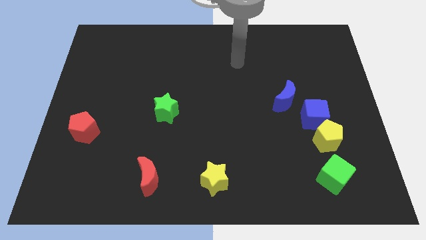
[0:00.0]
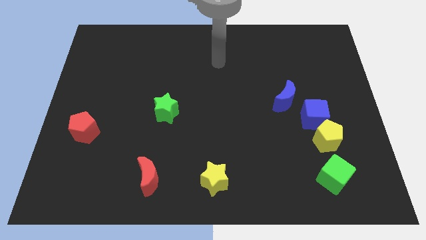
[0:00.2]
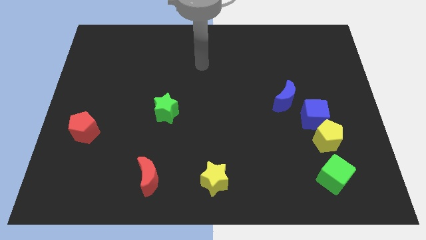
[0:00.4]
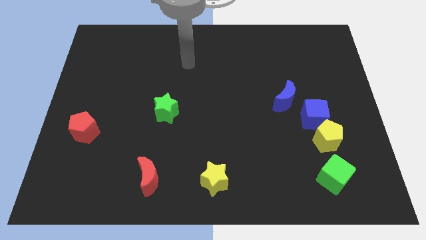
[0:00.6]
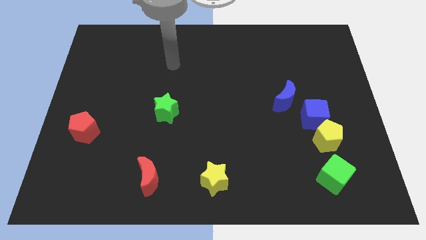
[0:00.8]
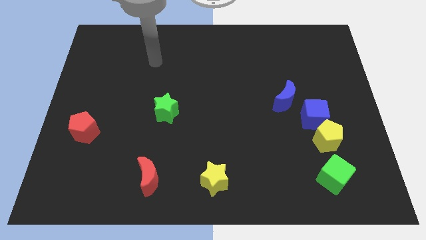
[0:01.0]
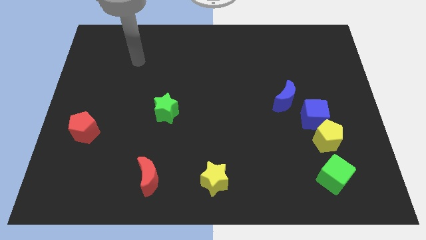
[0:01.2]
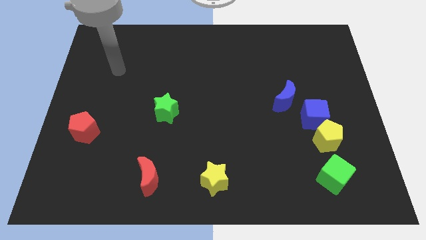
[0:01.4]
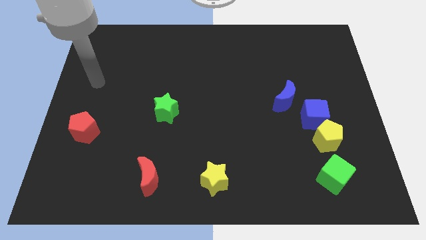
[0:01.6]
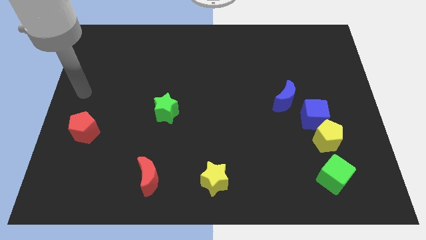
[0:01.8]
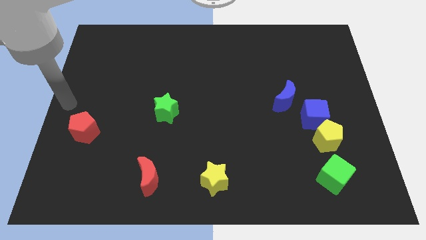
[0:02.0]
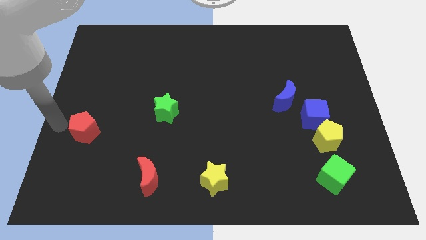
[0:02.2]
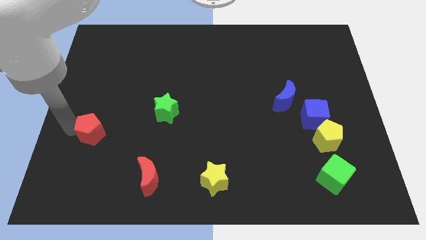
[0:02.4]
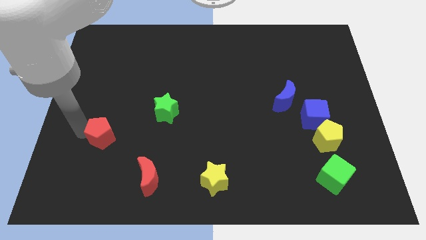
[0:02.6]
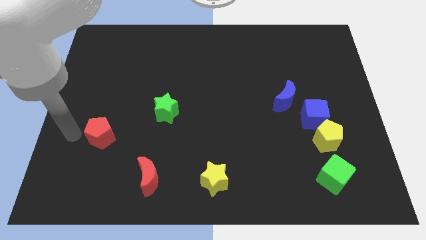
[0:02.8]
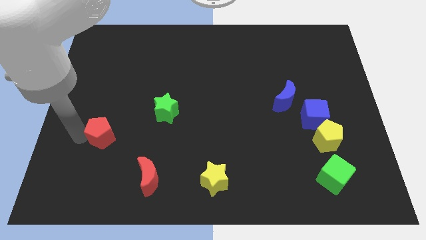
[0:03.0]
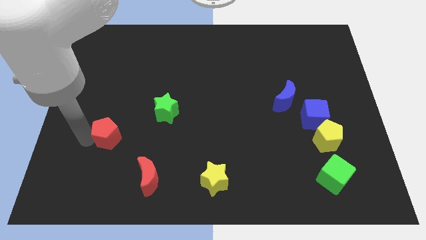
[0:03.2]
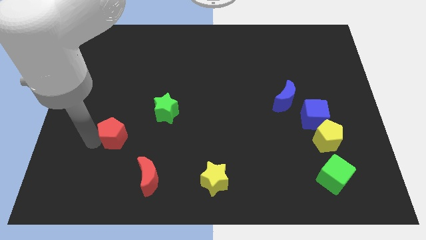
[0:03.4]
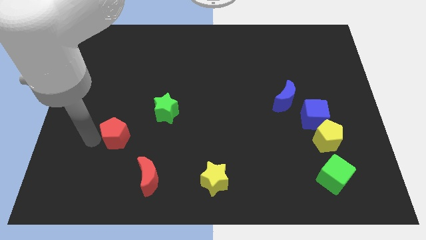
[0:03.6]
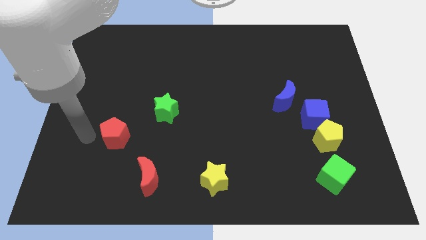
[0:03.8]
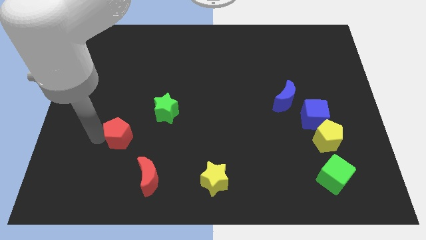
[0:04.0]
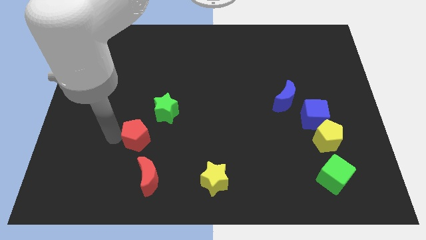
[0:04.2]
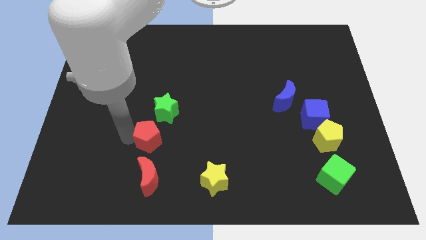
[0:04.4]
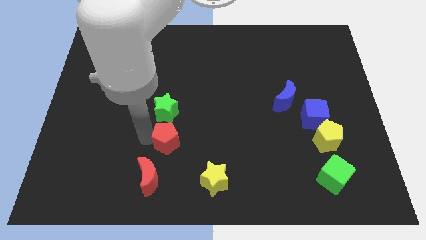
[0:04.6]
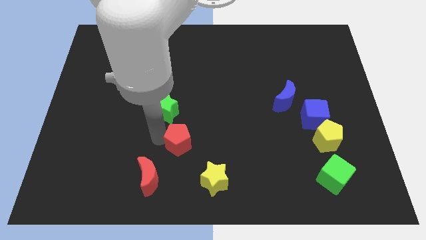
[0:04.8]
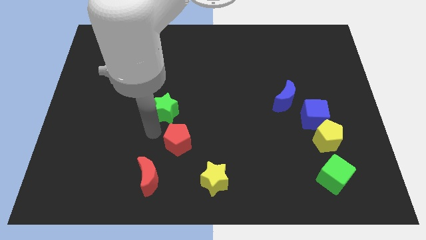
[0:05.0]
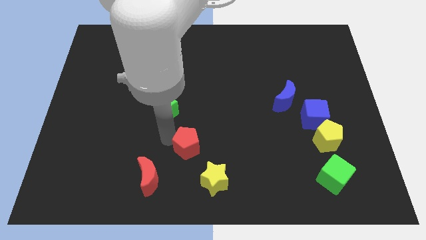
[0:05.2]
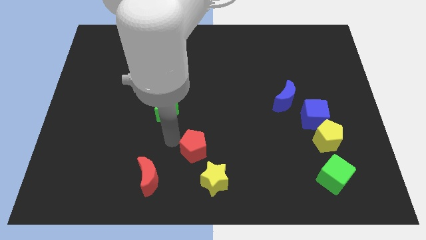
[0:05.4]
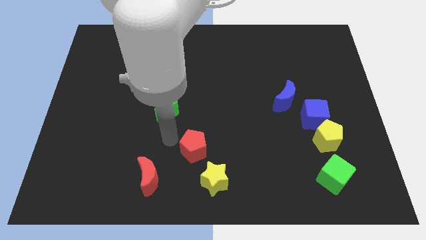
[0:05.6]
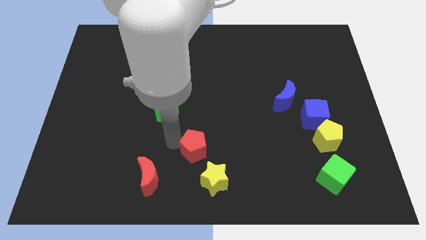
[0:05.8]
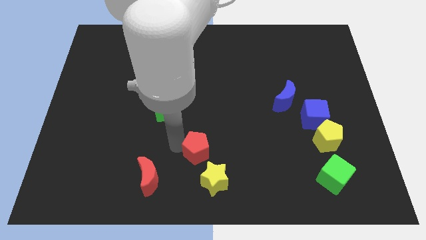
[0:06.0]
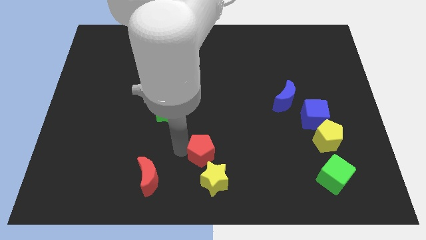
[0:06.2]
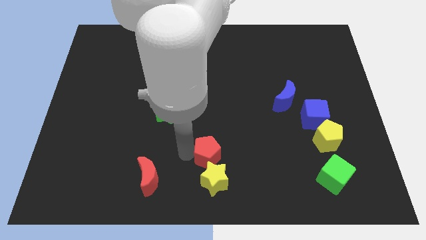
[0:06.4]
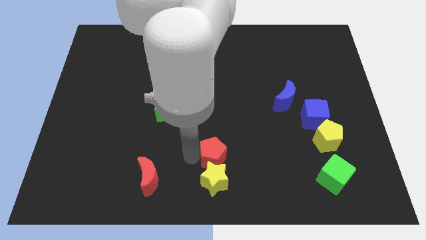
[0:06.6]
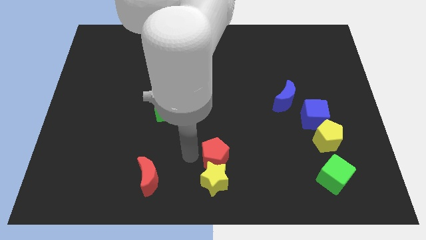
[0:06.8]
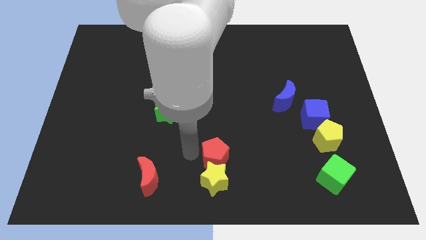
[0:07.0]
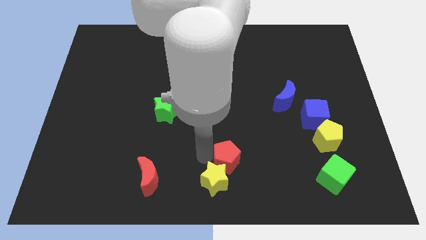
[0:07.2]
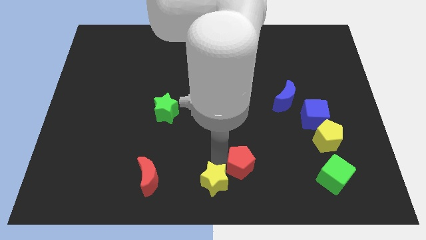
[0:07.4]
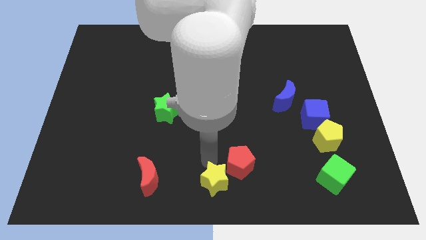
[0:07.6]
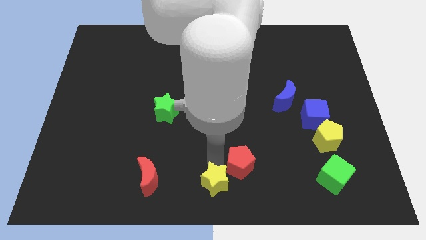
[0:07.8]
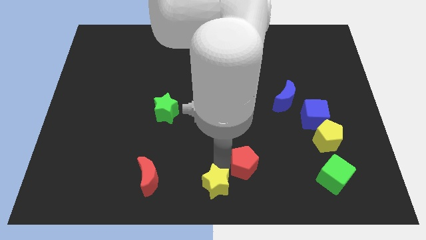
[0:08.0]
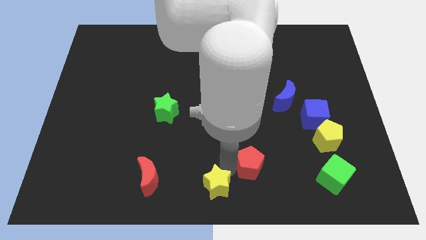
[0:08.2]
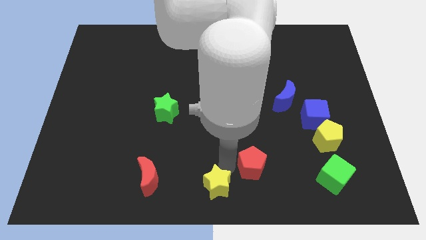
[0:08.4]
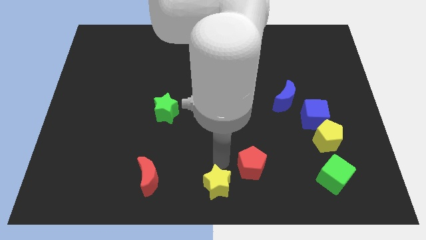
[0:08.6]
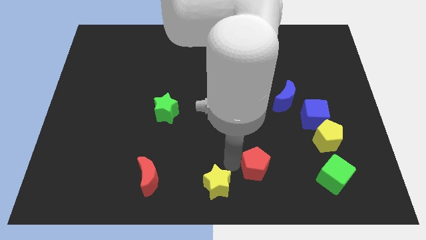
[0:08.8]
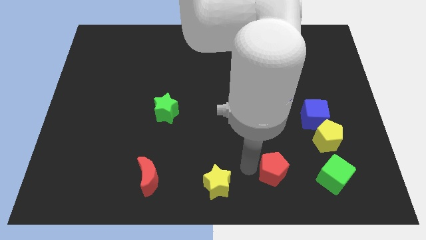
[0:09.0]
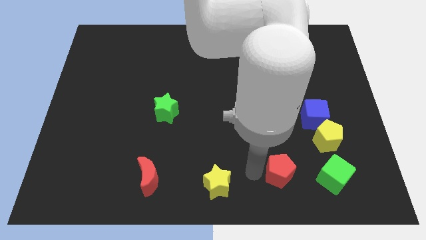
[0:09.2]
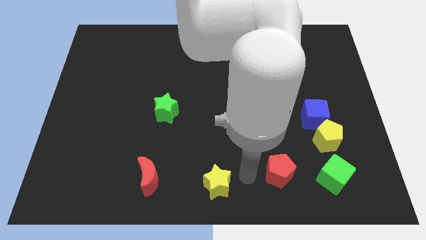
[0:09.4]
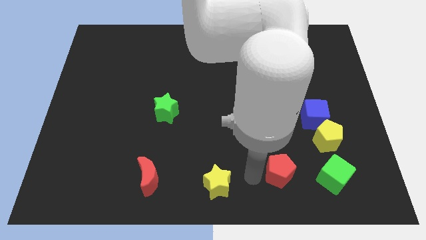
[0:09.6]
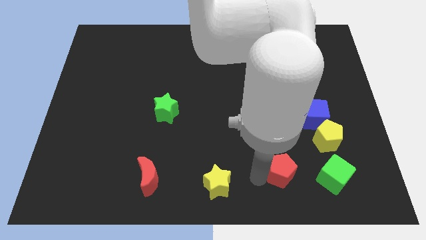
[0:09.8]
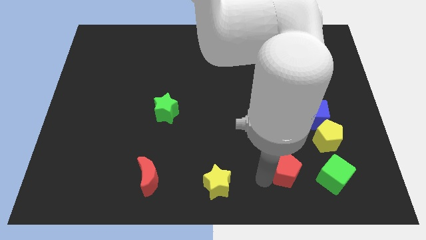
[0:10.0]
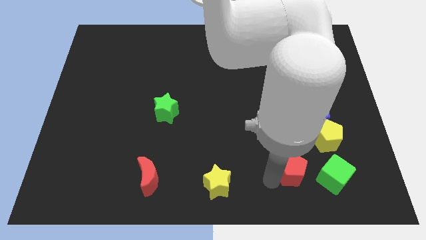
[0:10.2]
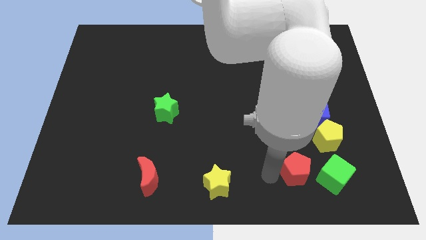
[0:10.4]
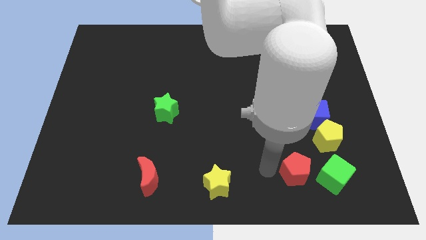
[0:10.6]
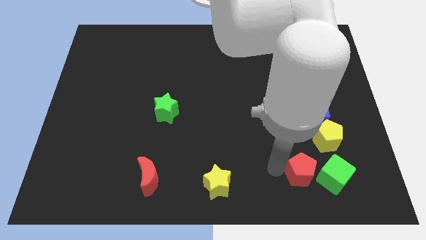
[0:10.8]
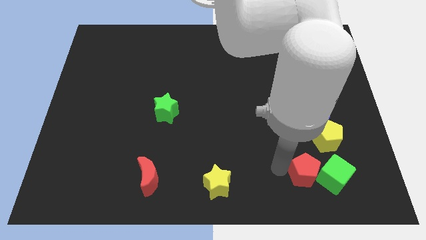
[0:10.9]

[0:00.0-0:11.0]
move the red pentagon next to the green cube

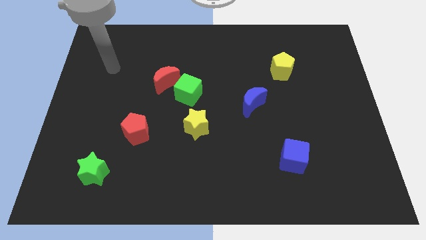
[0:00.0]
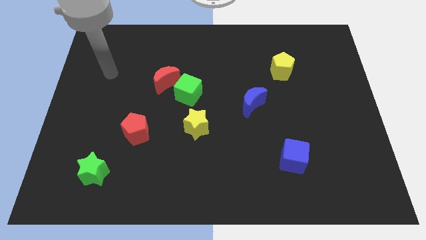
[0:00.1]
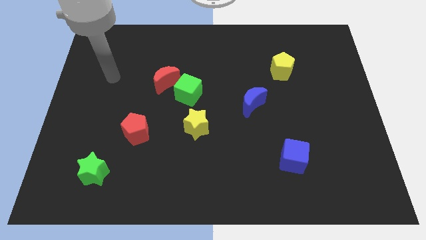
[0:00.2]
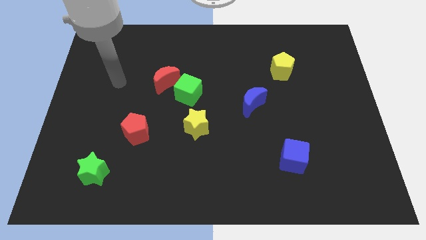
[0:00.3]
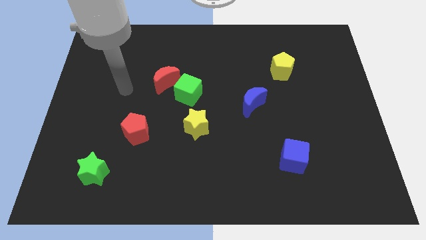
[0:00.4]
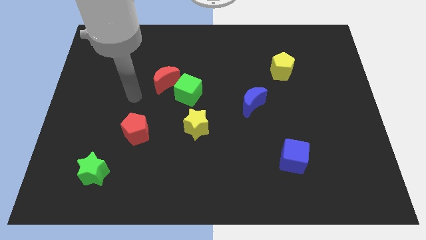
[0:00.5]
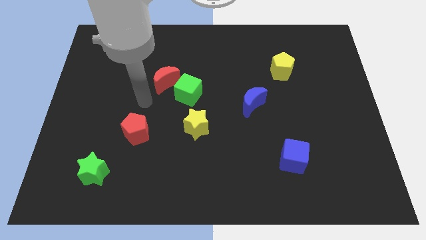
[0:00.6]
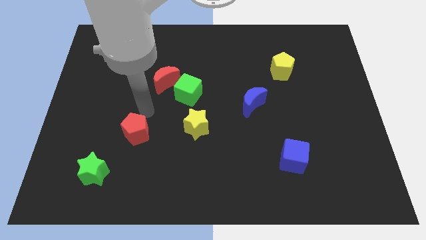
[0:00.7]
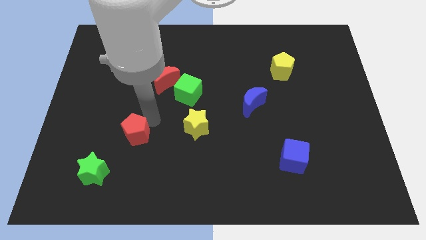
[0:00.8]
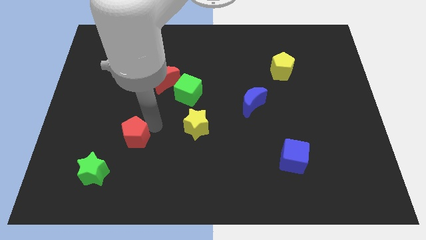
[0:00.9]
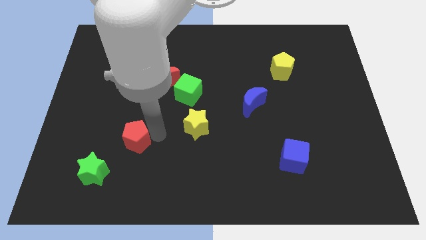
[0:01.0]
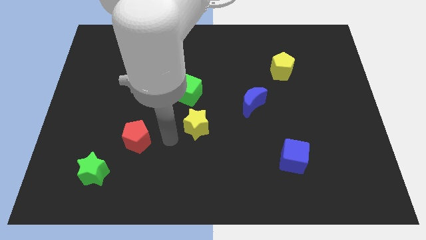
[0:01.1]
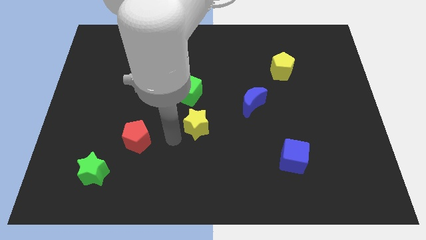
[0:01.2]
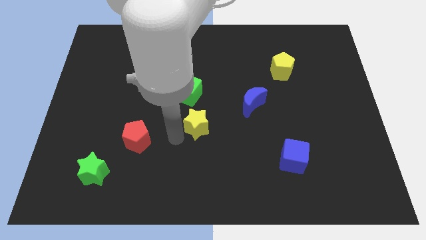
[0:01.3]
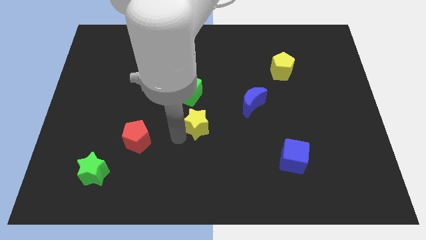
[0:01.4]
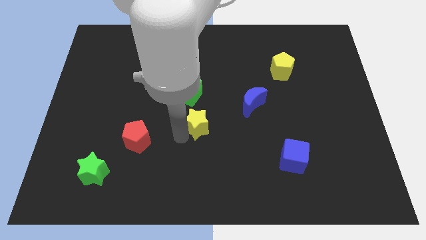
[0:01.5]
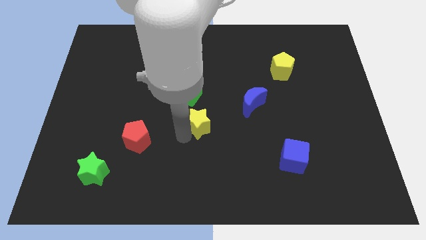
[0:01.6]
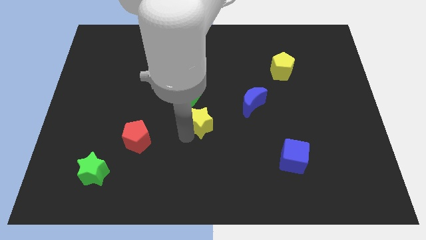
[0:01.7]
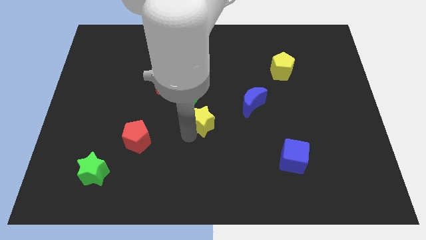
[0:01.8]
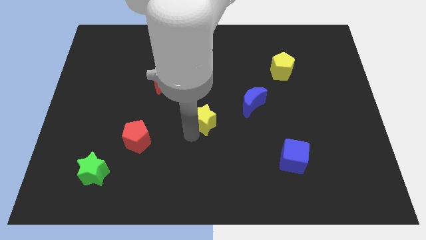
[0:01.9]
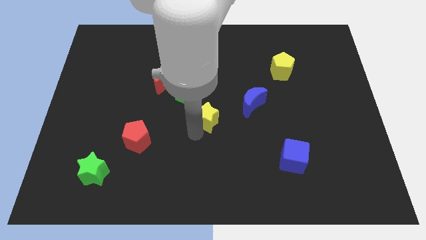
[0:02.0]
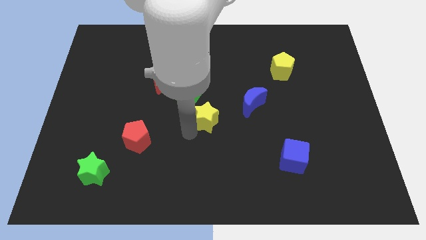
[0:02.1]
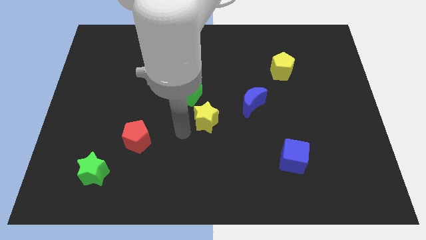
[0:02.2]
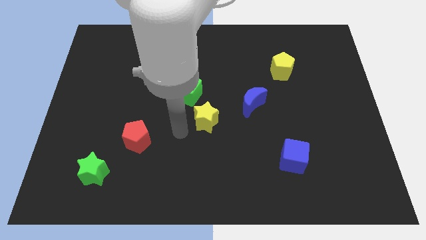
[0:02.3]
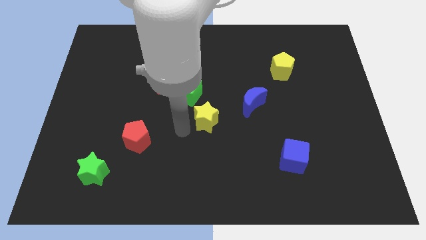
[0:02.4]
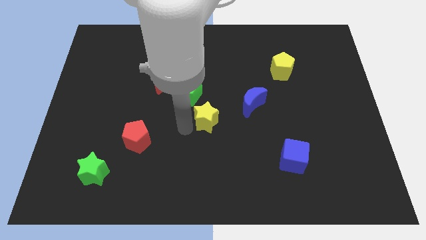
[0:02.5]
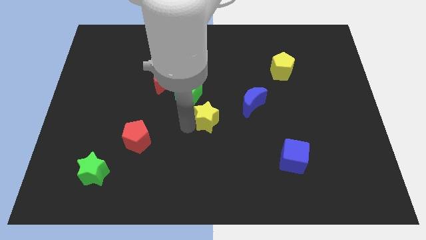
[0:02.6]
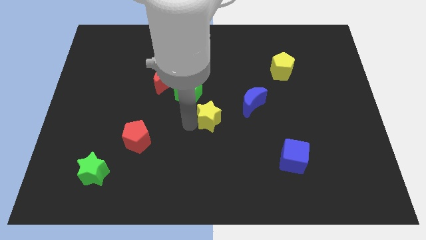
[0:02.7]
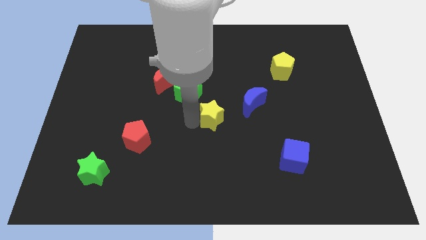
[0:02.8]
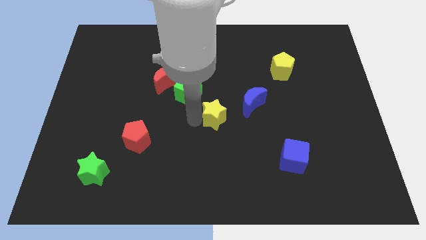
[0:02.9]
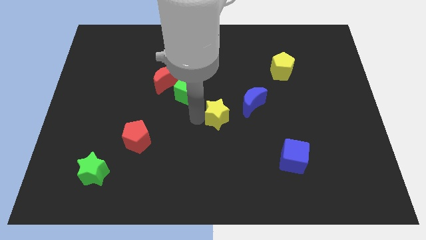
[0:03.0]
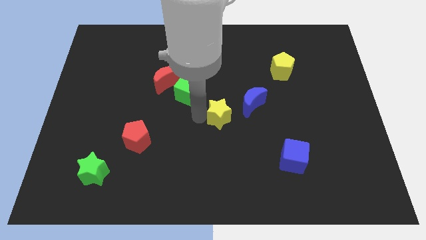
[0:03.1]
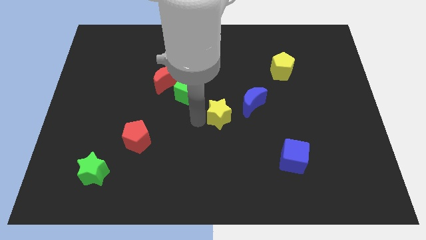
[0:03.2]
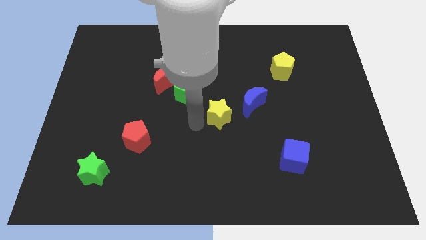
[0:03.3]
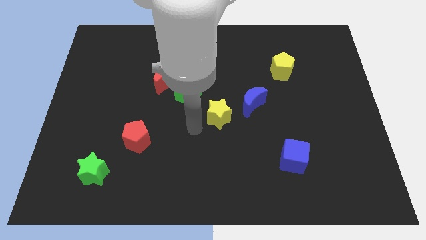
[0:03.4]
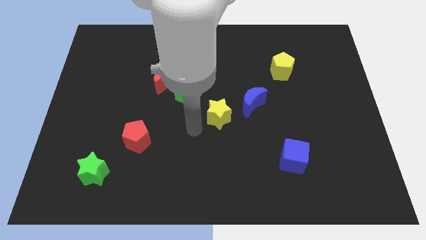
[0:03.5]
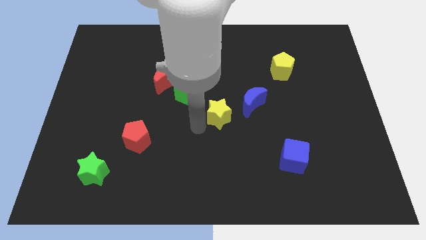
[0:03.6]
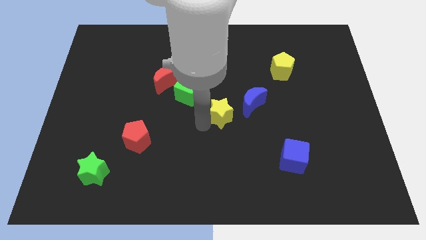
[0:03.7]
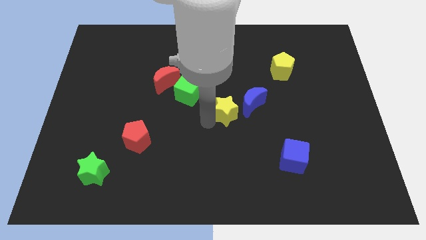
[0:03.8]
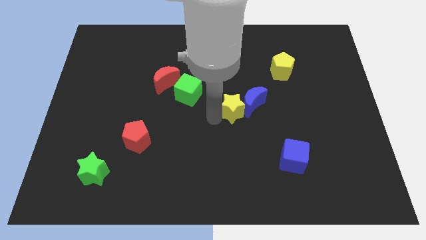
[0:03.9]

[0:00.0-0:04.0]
move the yellow star close to the blue moon
